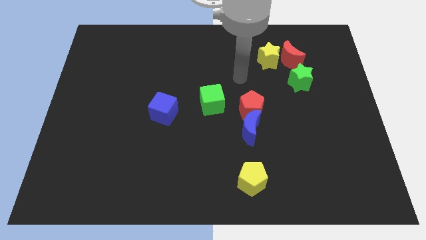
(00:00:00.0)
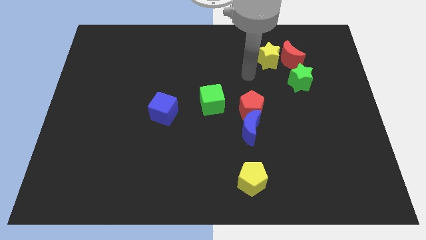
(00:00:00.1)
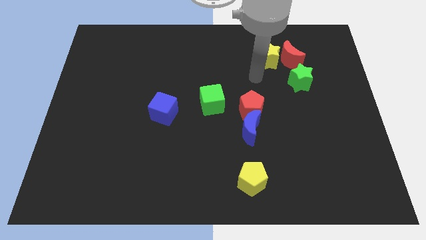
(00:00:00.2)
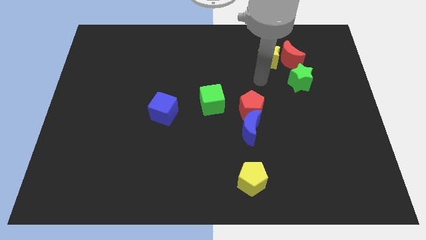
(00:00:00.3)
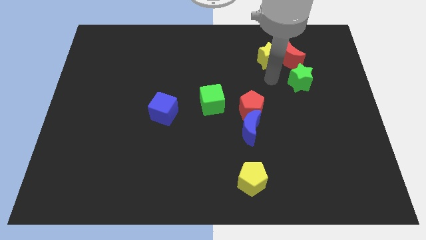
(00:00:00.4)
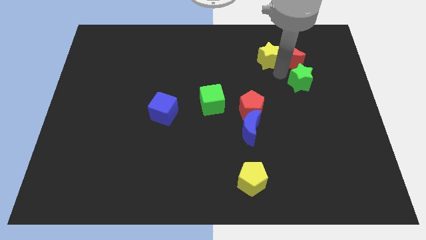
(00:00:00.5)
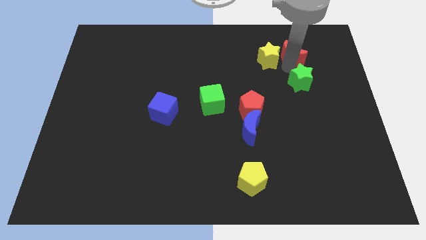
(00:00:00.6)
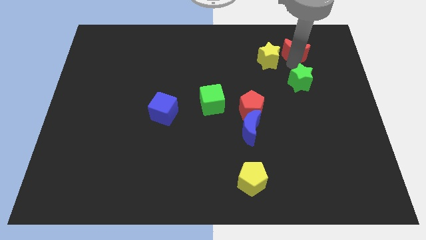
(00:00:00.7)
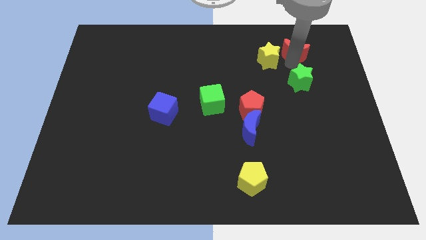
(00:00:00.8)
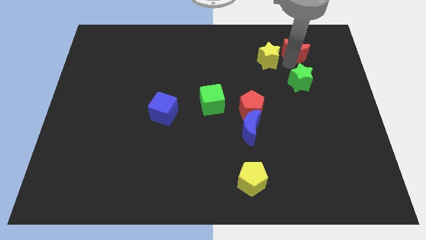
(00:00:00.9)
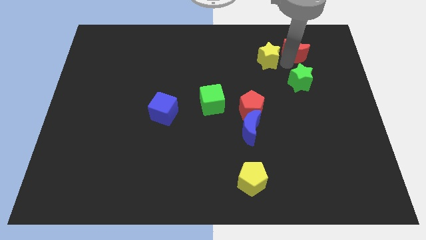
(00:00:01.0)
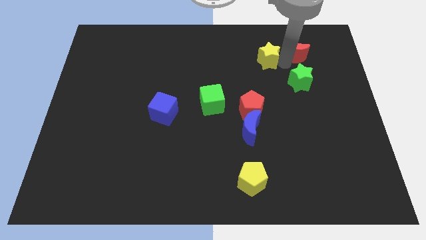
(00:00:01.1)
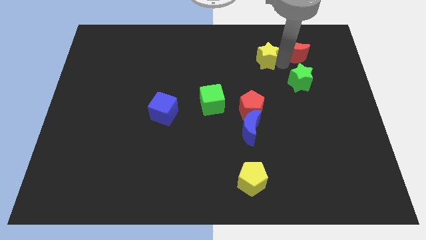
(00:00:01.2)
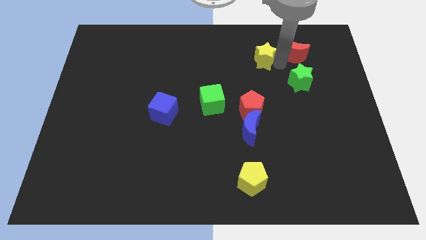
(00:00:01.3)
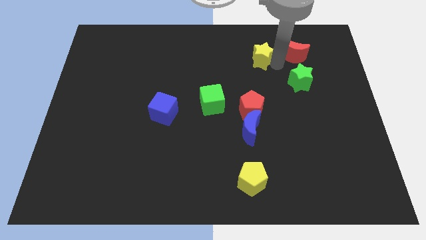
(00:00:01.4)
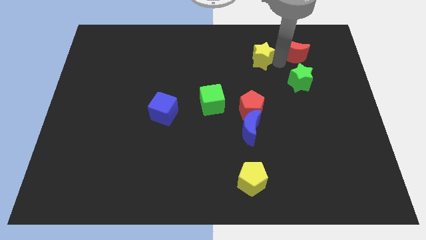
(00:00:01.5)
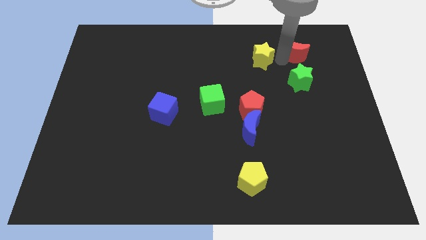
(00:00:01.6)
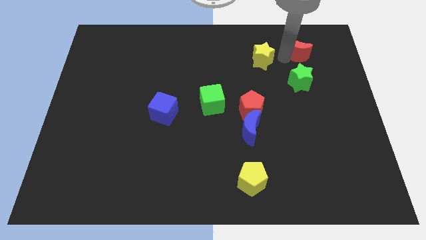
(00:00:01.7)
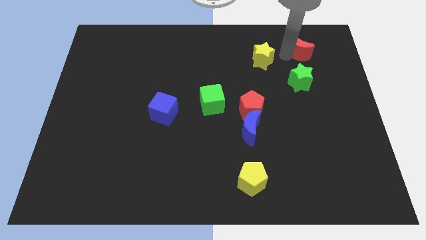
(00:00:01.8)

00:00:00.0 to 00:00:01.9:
pull the yellow star apart from the red moon

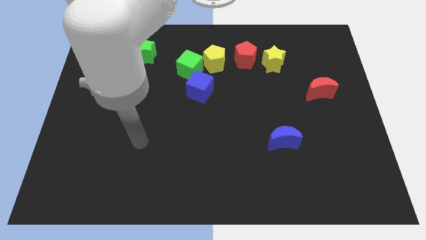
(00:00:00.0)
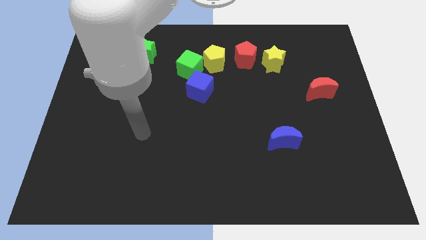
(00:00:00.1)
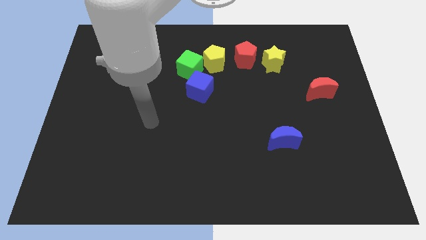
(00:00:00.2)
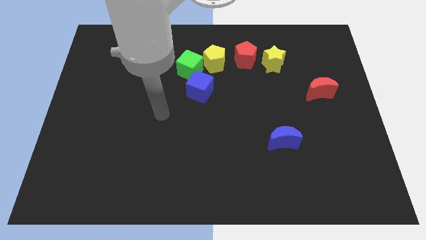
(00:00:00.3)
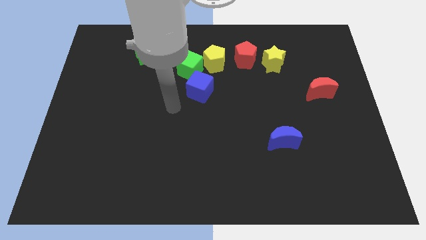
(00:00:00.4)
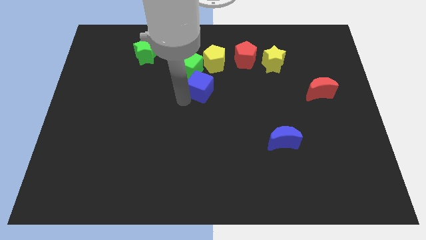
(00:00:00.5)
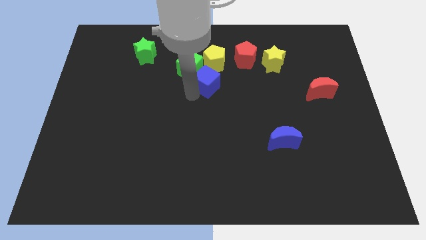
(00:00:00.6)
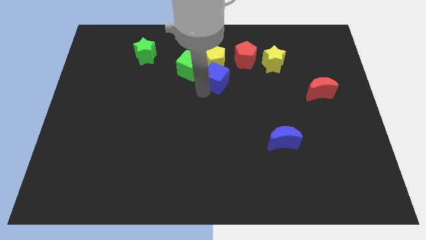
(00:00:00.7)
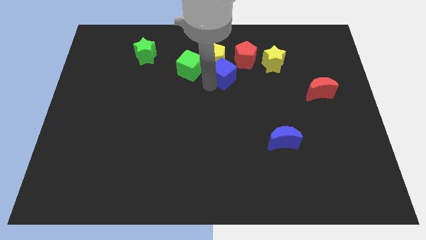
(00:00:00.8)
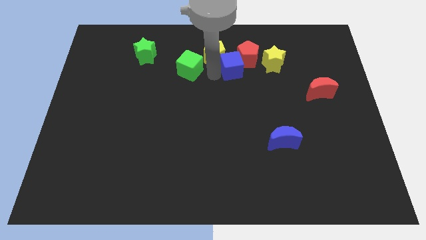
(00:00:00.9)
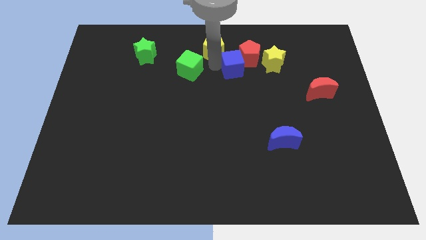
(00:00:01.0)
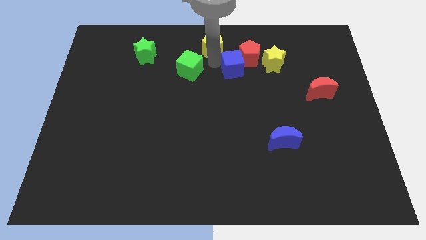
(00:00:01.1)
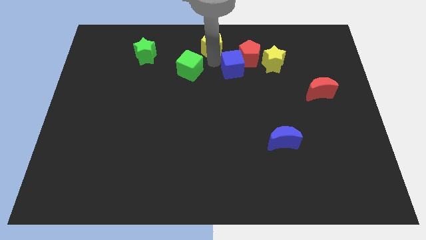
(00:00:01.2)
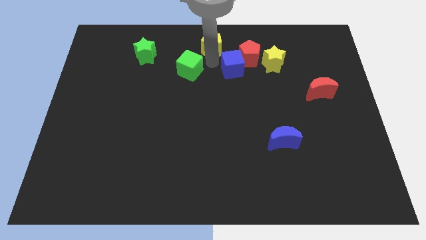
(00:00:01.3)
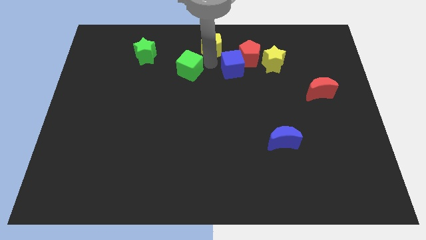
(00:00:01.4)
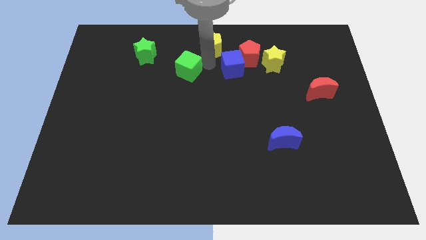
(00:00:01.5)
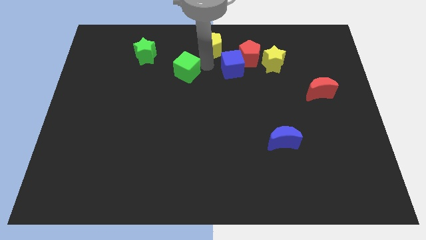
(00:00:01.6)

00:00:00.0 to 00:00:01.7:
separate the green cube from the yellow pentagon and blue cube

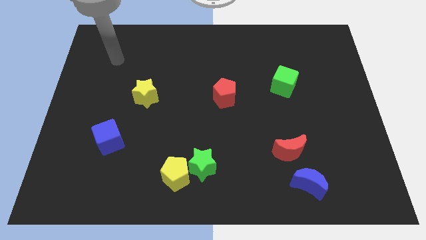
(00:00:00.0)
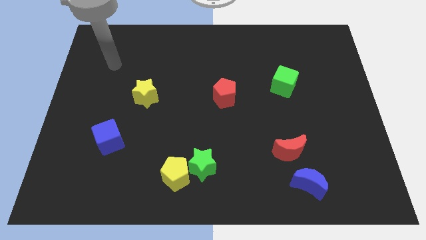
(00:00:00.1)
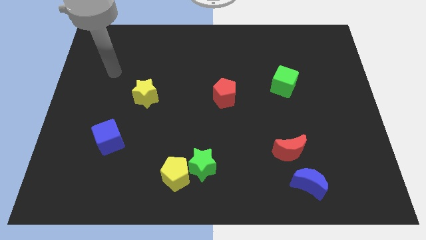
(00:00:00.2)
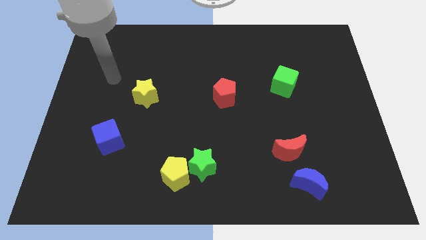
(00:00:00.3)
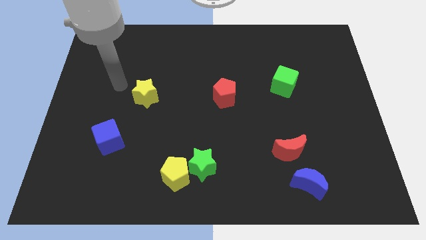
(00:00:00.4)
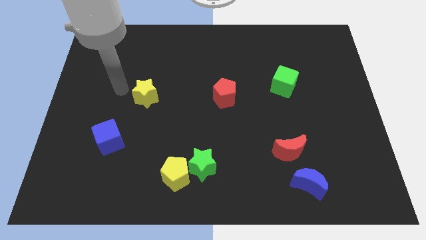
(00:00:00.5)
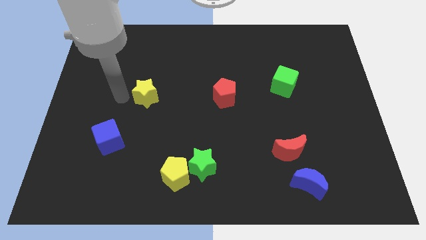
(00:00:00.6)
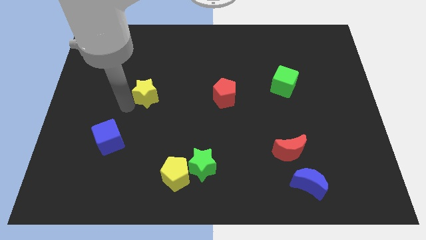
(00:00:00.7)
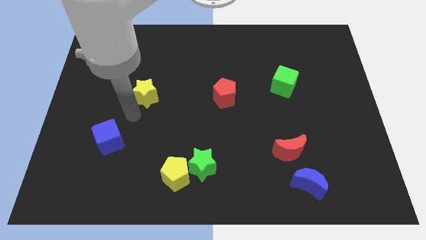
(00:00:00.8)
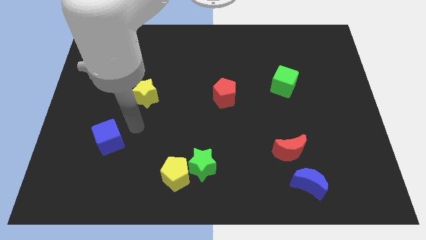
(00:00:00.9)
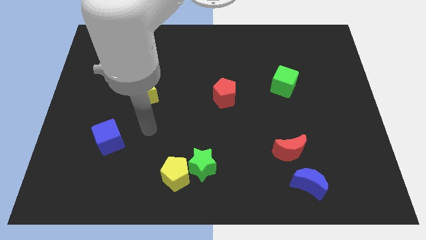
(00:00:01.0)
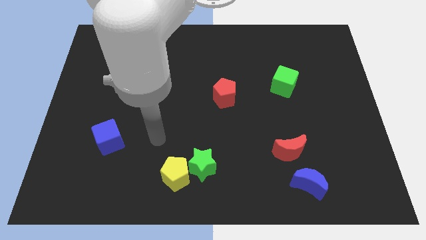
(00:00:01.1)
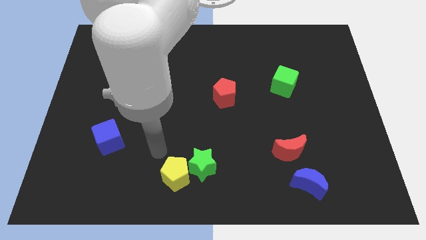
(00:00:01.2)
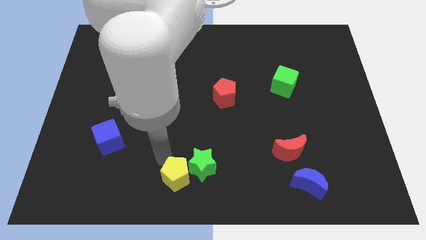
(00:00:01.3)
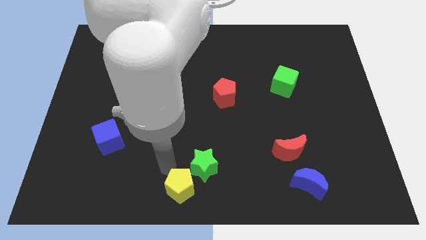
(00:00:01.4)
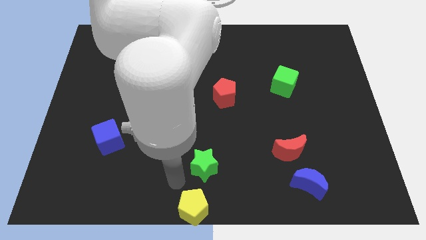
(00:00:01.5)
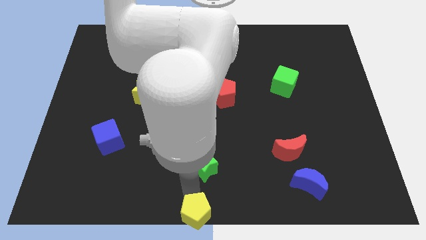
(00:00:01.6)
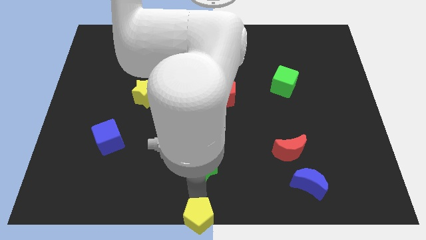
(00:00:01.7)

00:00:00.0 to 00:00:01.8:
separate the green star from the yellow pentagon

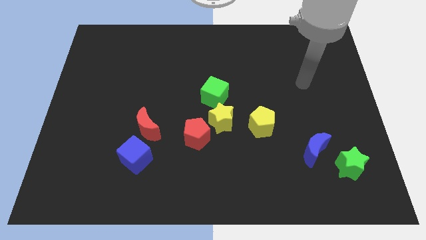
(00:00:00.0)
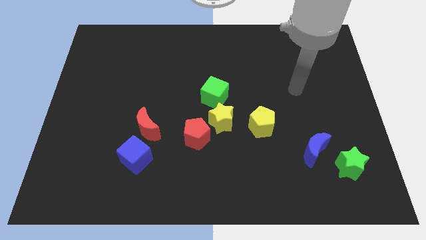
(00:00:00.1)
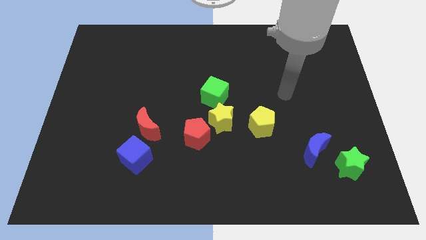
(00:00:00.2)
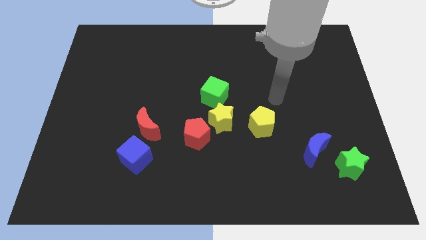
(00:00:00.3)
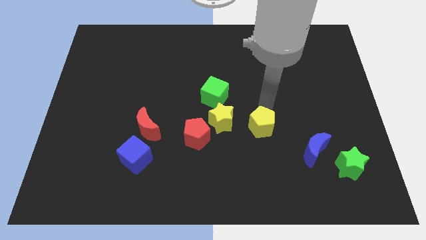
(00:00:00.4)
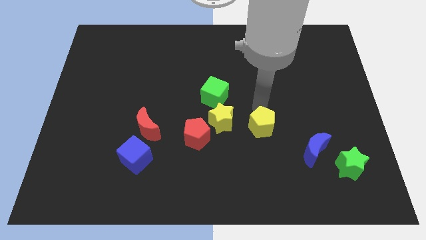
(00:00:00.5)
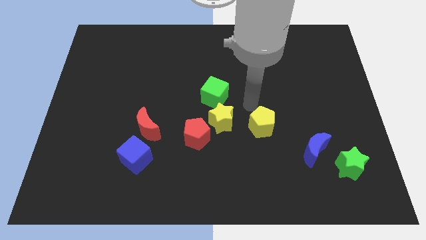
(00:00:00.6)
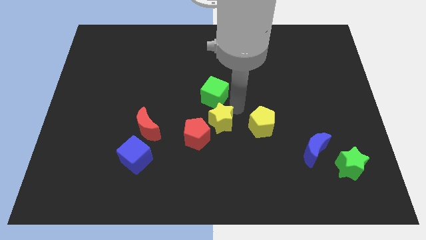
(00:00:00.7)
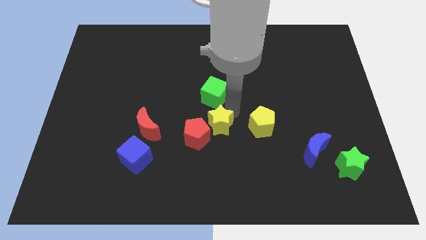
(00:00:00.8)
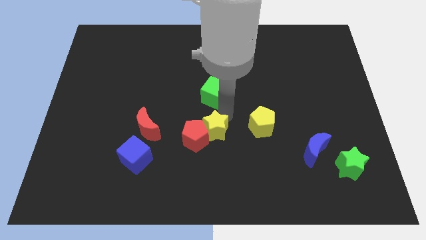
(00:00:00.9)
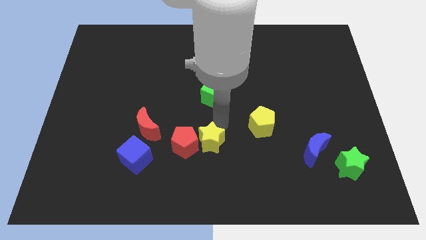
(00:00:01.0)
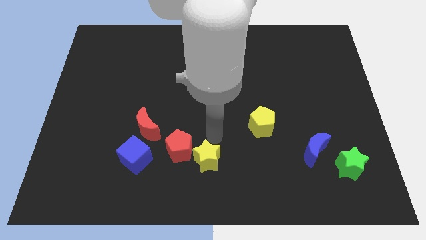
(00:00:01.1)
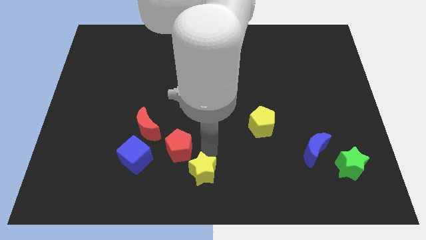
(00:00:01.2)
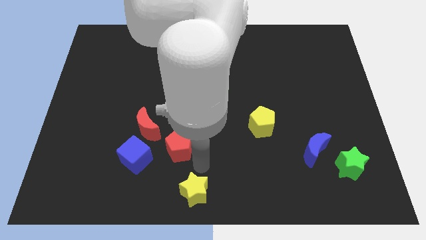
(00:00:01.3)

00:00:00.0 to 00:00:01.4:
pull the red pentagon apart from the yellow star

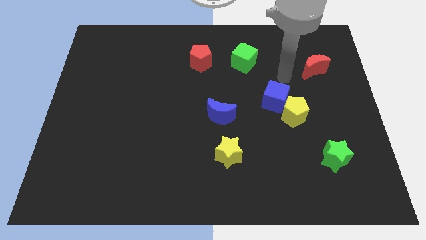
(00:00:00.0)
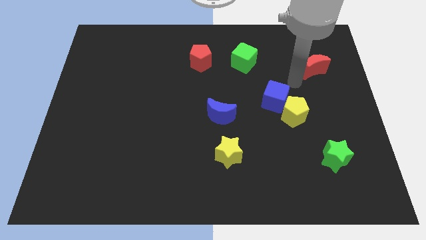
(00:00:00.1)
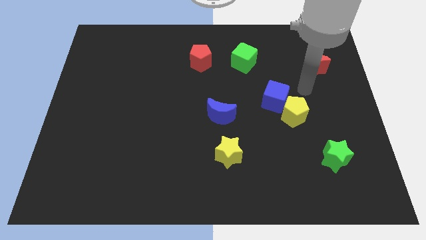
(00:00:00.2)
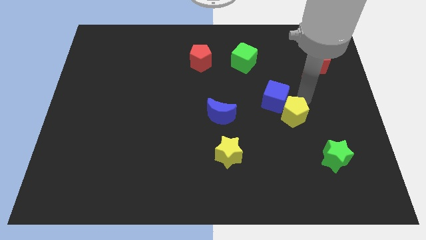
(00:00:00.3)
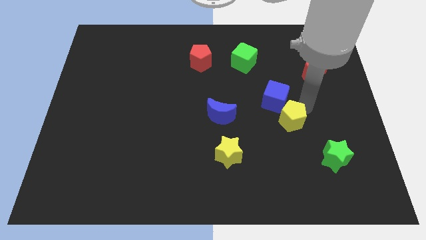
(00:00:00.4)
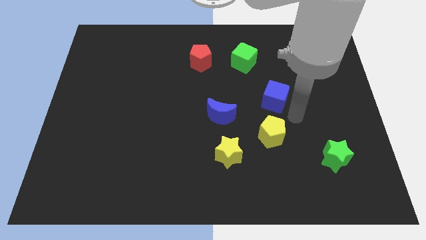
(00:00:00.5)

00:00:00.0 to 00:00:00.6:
separate the blue cube from the yellow pentagon

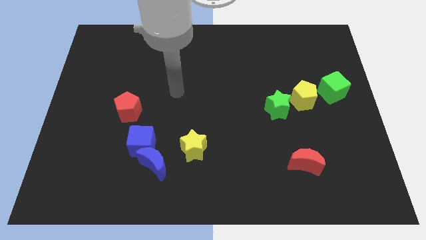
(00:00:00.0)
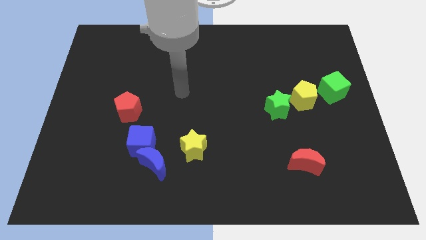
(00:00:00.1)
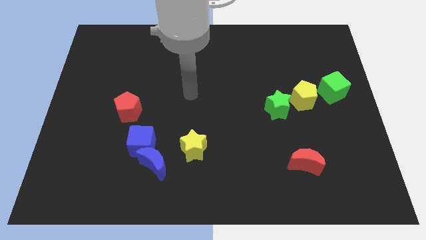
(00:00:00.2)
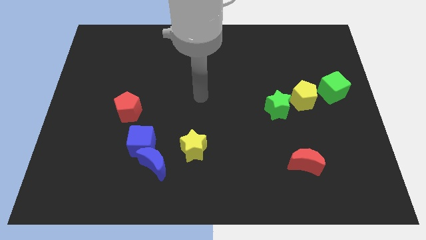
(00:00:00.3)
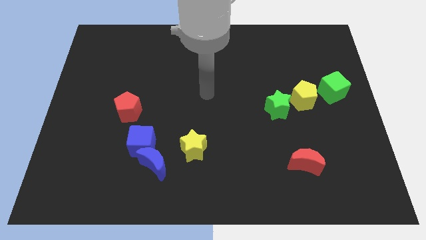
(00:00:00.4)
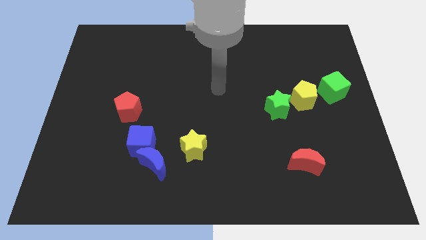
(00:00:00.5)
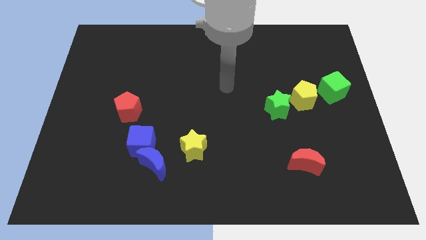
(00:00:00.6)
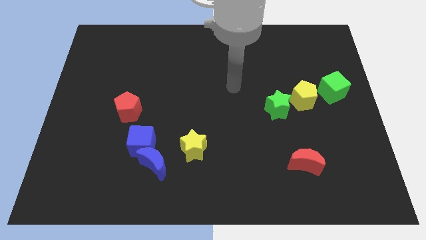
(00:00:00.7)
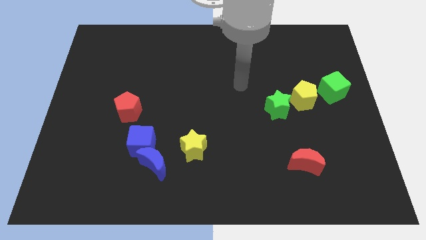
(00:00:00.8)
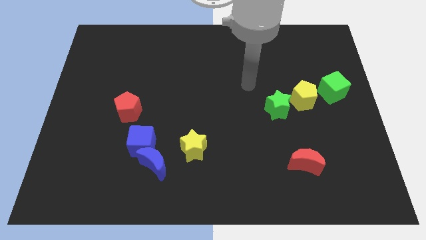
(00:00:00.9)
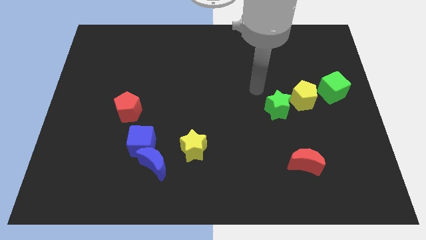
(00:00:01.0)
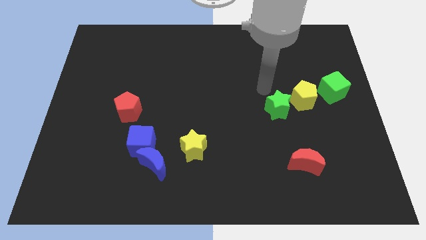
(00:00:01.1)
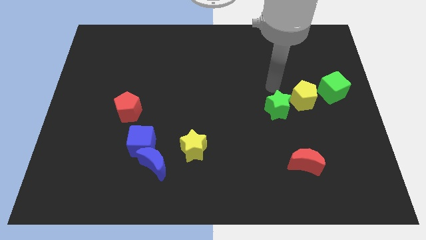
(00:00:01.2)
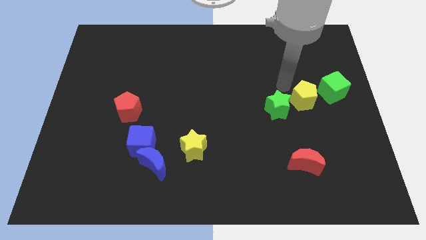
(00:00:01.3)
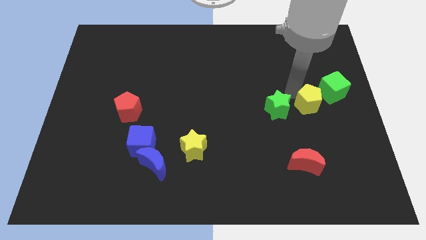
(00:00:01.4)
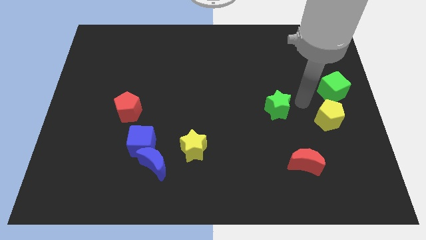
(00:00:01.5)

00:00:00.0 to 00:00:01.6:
pull the green star apart from the yellow pentagon
